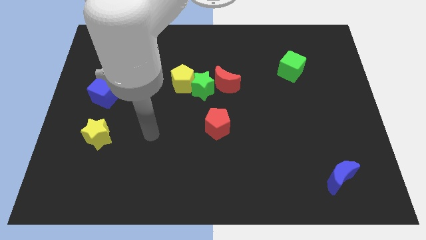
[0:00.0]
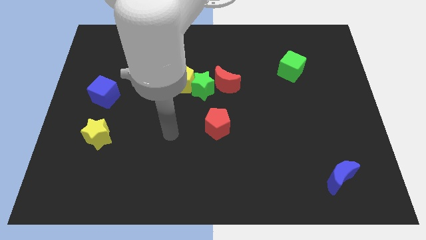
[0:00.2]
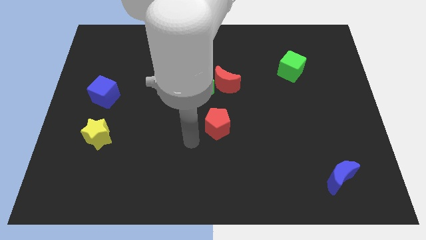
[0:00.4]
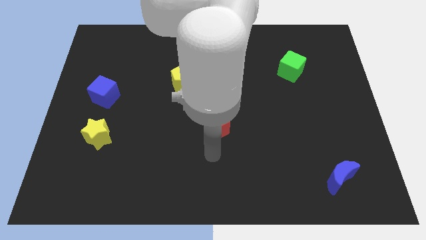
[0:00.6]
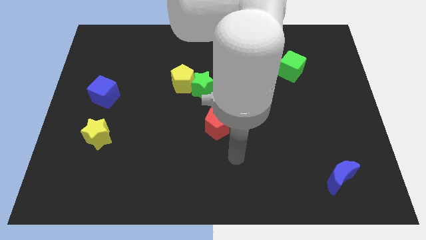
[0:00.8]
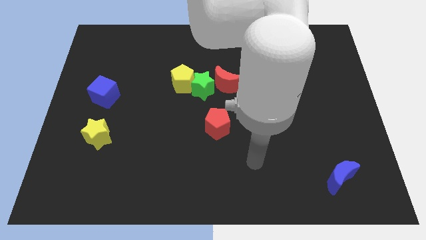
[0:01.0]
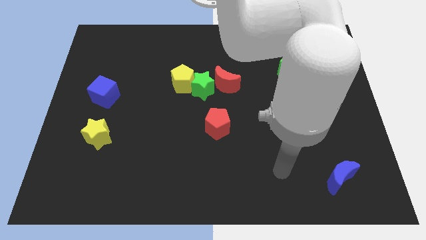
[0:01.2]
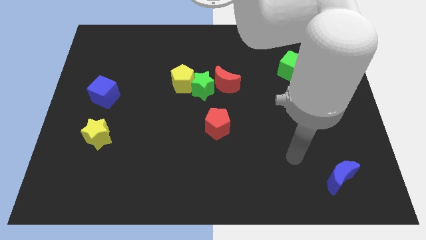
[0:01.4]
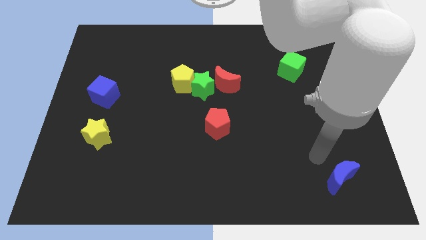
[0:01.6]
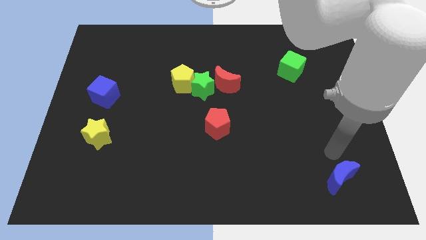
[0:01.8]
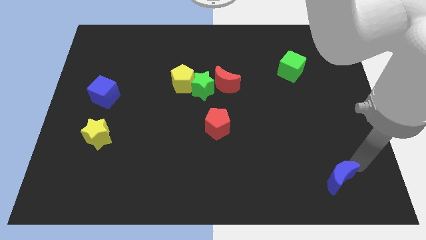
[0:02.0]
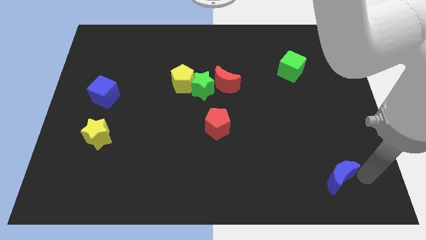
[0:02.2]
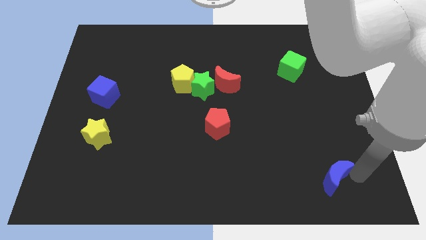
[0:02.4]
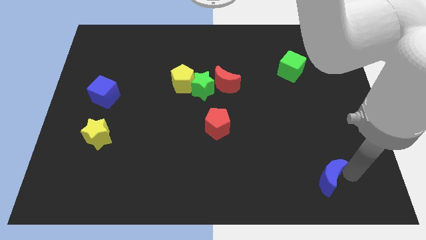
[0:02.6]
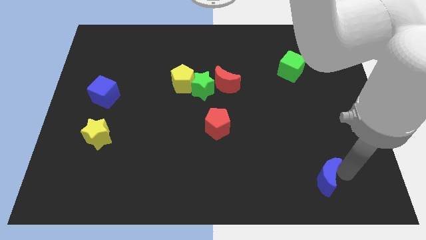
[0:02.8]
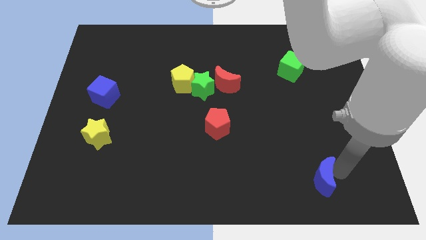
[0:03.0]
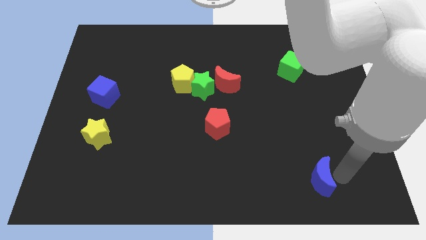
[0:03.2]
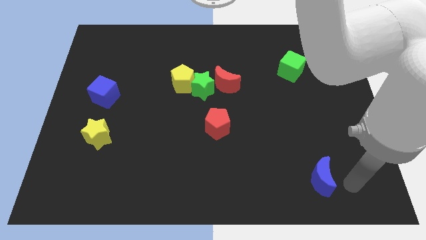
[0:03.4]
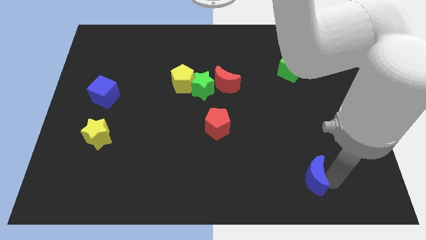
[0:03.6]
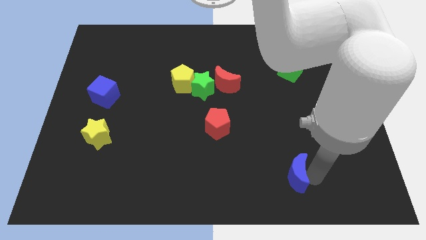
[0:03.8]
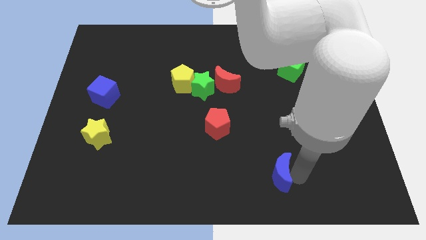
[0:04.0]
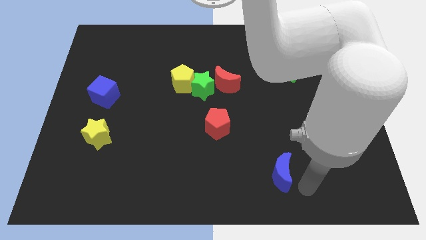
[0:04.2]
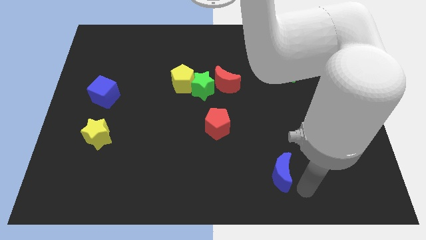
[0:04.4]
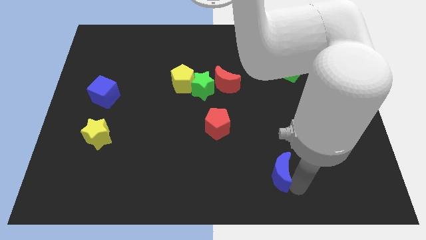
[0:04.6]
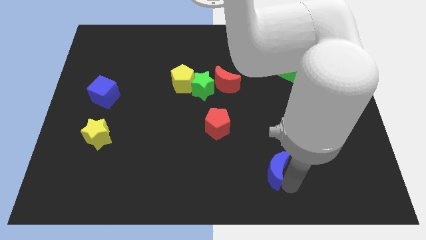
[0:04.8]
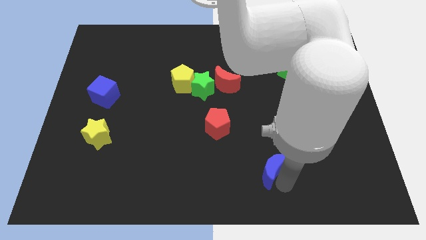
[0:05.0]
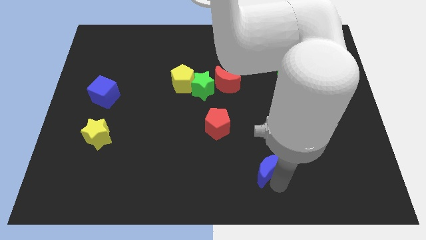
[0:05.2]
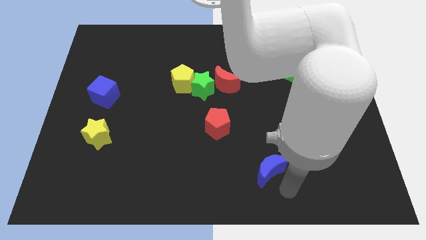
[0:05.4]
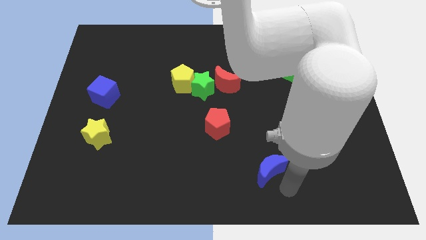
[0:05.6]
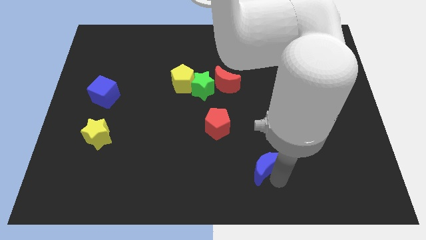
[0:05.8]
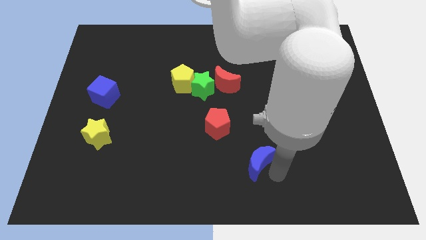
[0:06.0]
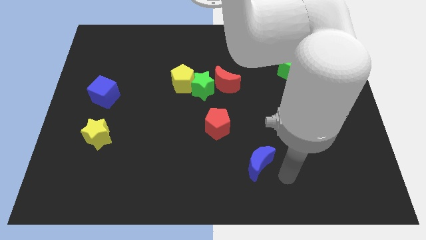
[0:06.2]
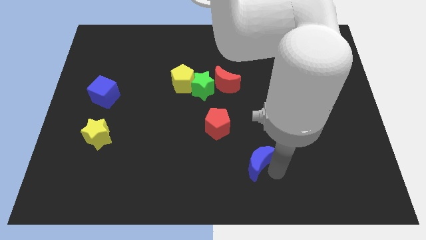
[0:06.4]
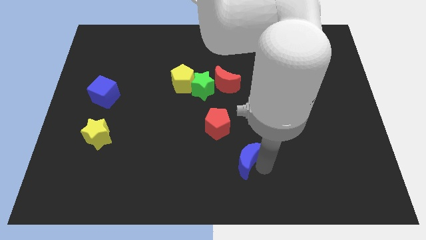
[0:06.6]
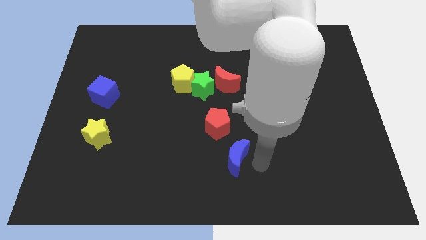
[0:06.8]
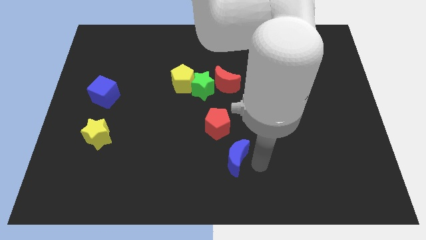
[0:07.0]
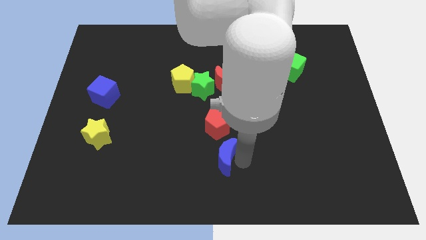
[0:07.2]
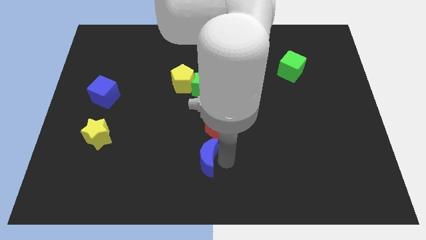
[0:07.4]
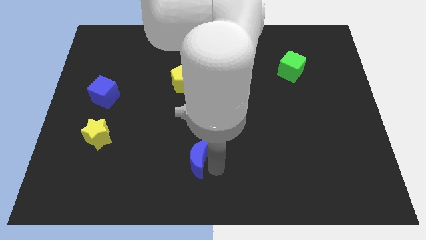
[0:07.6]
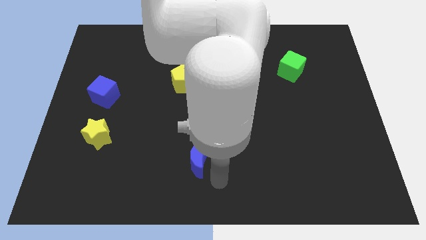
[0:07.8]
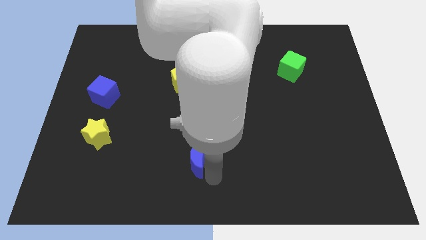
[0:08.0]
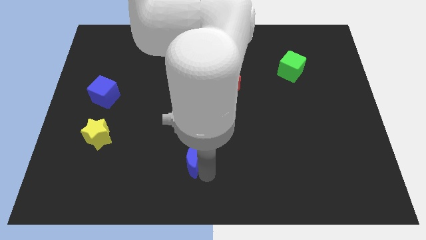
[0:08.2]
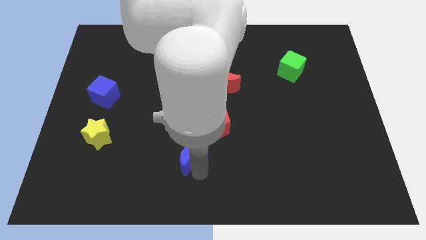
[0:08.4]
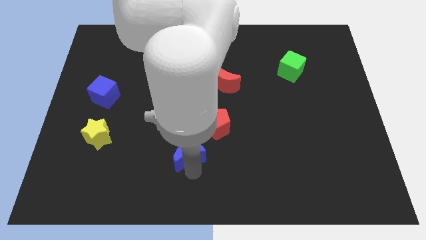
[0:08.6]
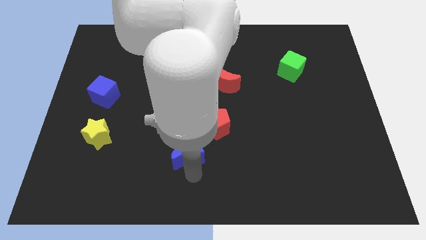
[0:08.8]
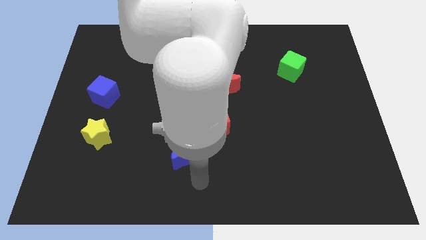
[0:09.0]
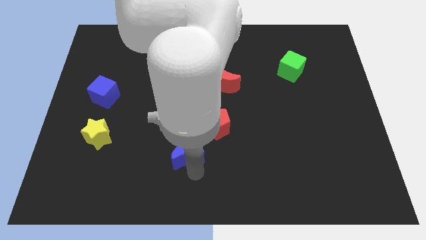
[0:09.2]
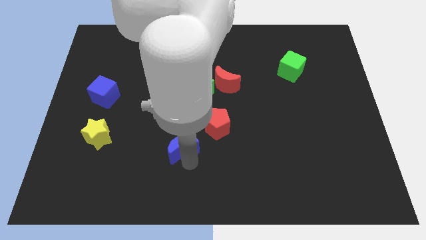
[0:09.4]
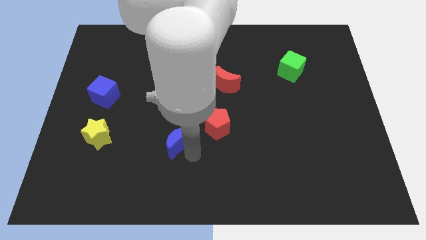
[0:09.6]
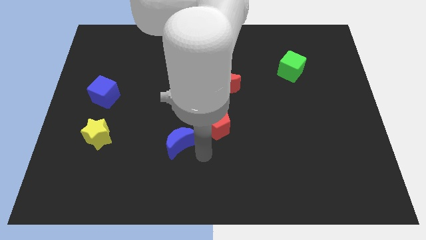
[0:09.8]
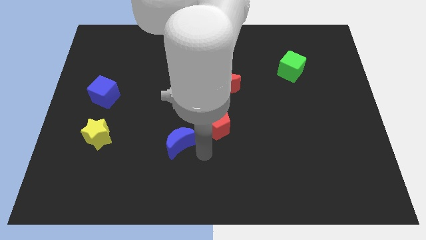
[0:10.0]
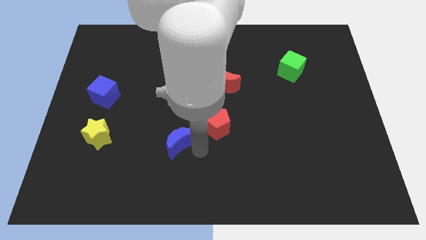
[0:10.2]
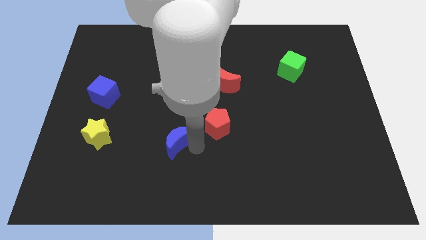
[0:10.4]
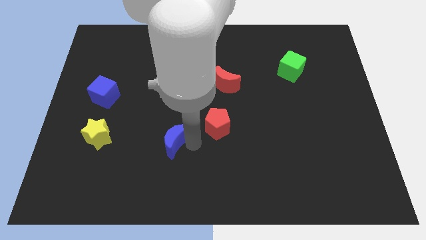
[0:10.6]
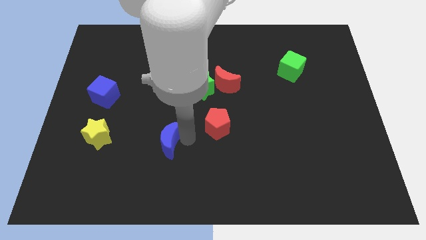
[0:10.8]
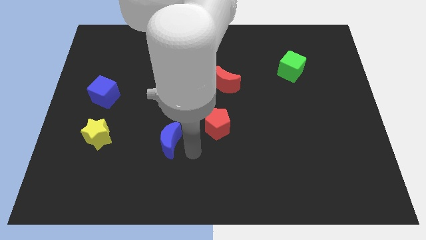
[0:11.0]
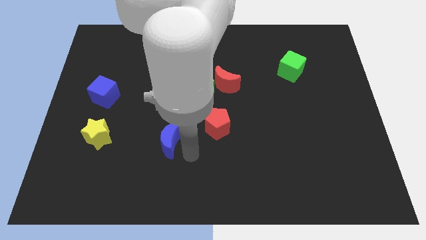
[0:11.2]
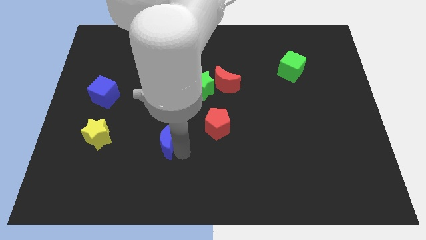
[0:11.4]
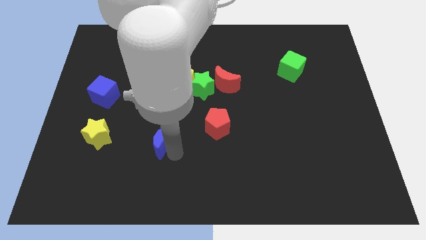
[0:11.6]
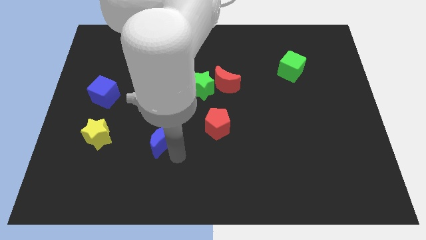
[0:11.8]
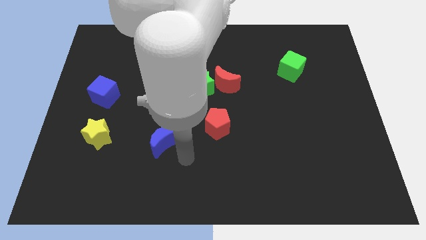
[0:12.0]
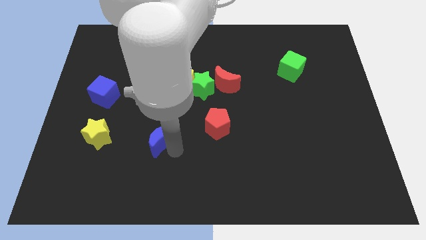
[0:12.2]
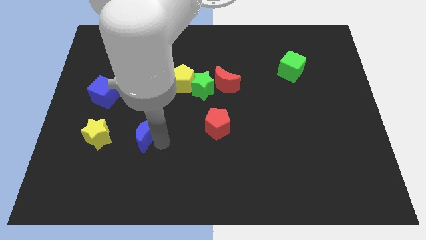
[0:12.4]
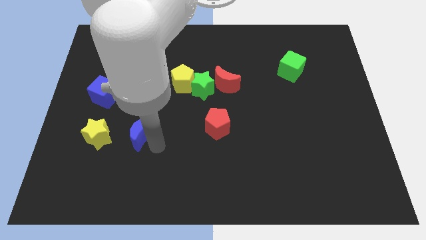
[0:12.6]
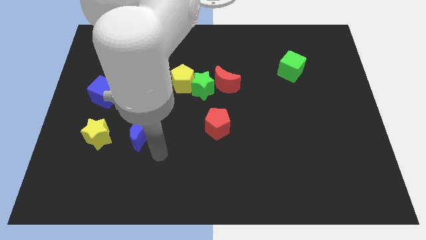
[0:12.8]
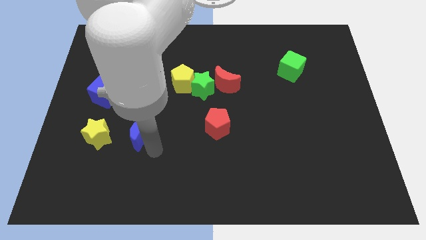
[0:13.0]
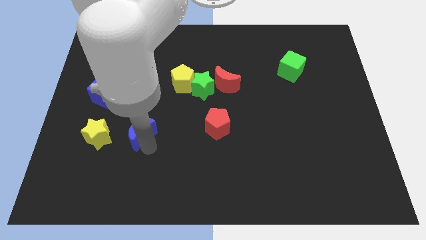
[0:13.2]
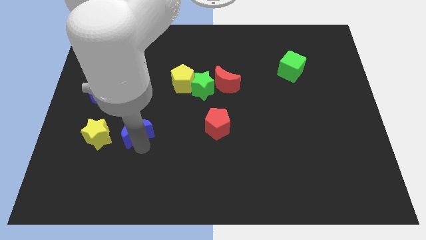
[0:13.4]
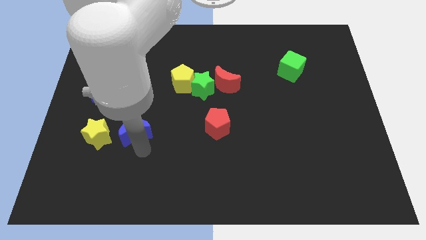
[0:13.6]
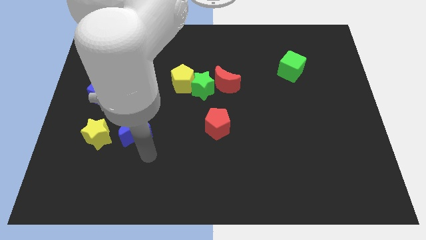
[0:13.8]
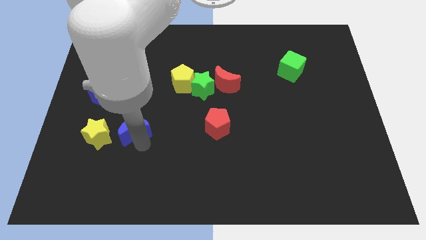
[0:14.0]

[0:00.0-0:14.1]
move the blue moon to the top right of the yellow star

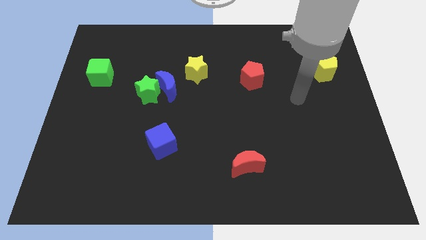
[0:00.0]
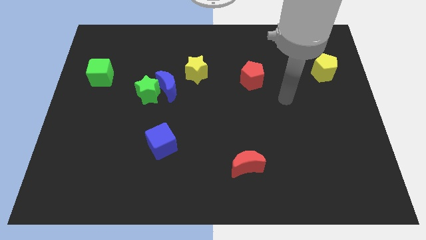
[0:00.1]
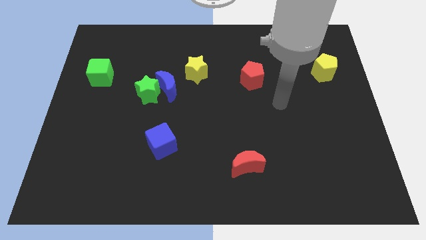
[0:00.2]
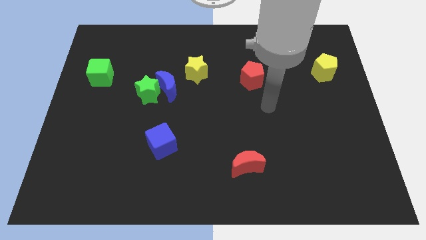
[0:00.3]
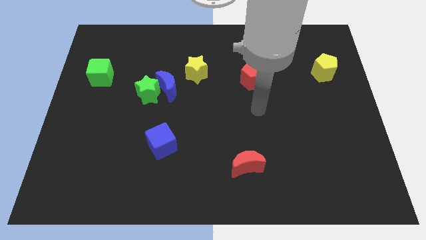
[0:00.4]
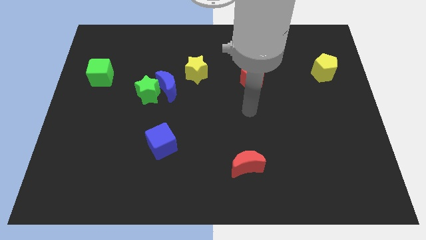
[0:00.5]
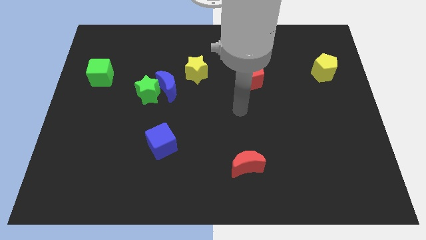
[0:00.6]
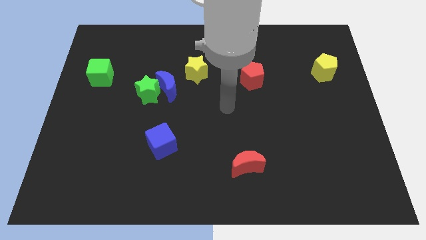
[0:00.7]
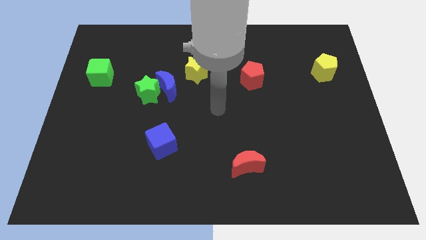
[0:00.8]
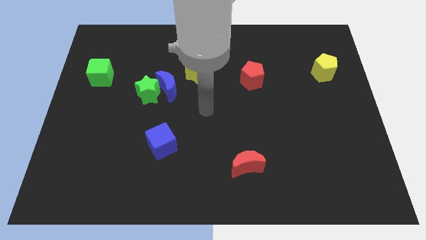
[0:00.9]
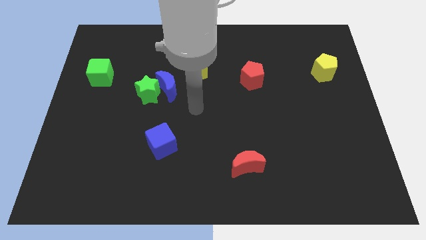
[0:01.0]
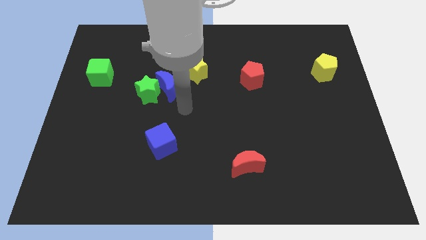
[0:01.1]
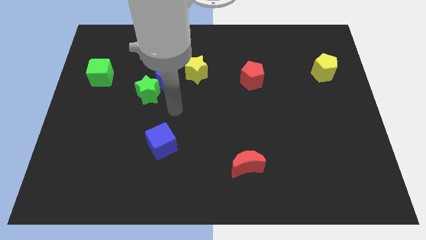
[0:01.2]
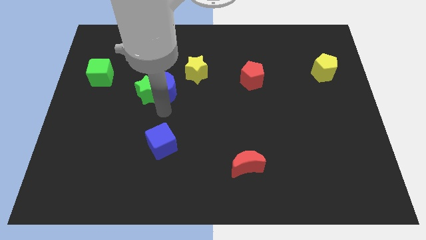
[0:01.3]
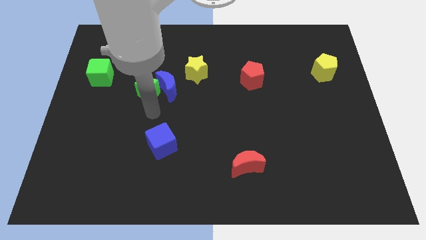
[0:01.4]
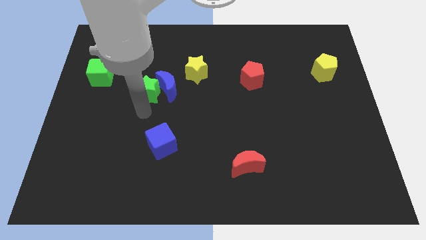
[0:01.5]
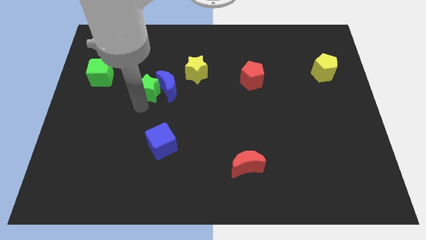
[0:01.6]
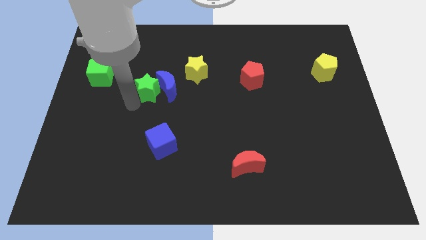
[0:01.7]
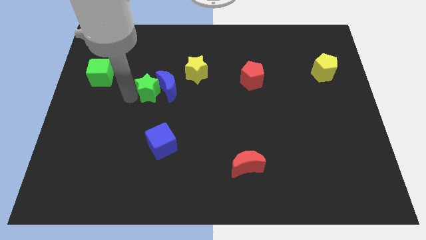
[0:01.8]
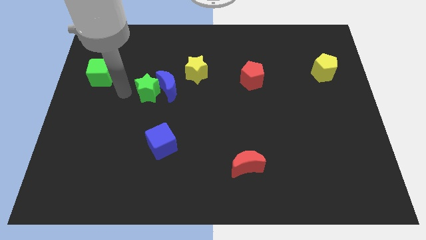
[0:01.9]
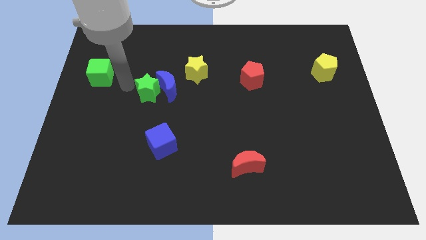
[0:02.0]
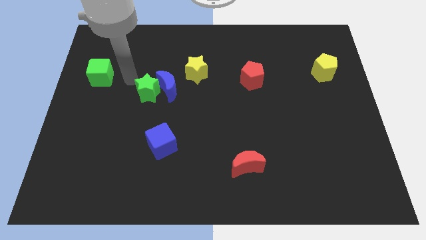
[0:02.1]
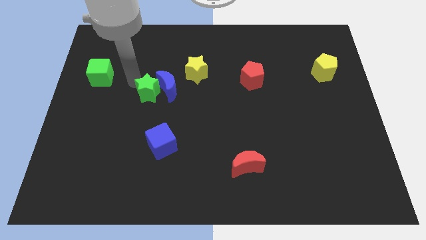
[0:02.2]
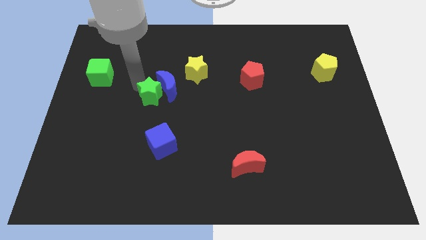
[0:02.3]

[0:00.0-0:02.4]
move the green star above the blue cube
